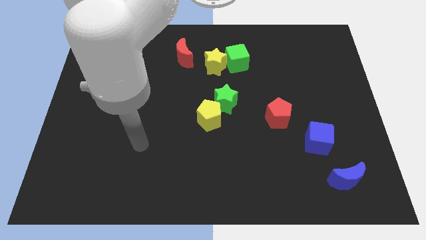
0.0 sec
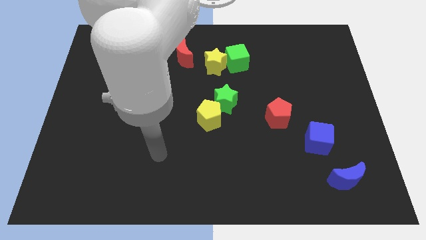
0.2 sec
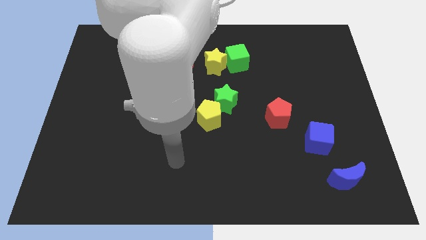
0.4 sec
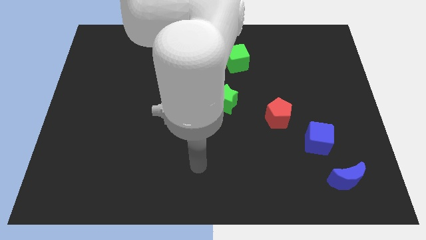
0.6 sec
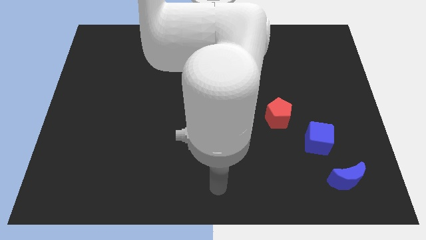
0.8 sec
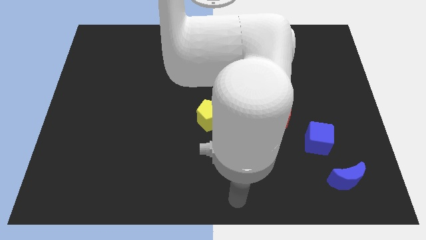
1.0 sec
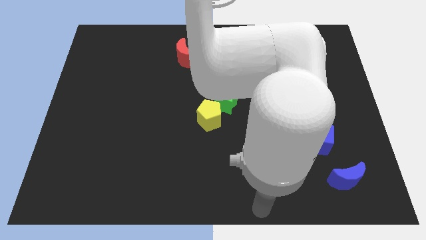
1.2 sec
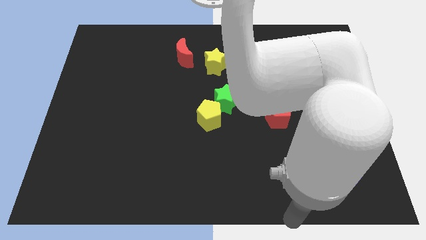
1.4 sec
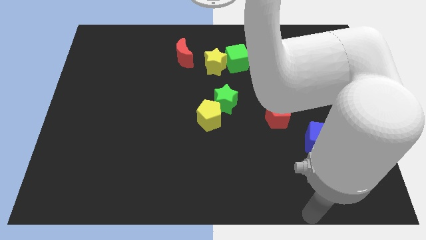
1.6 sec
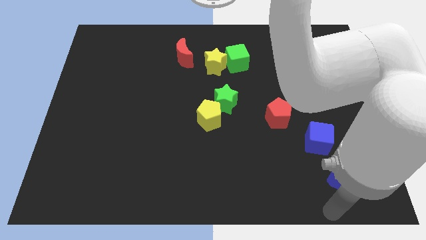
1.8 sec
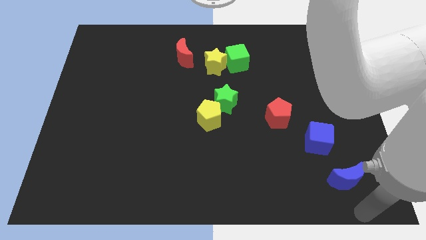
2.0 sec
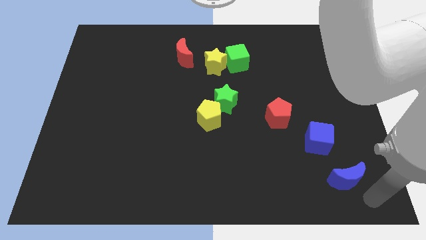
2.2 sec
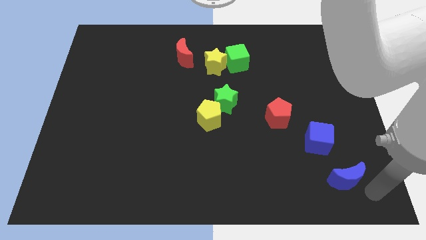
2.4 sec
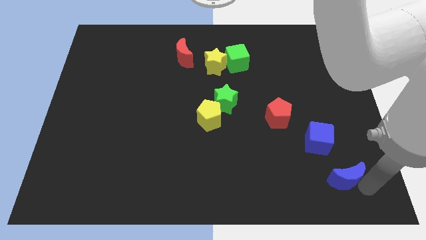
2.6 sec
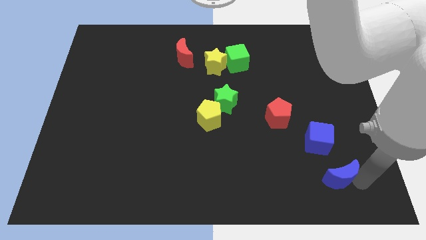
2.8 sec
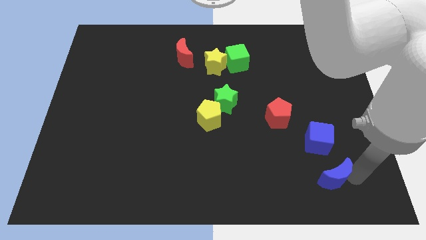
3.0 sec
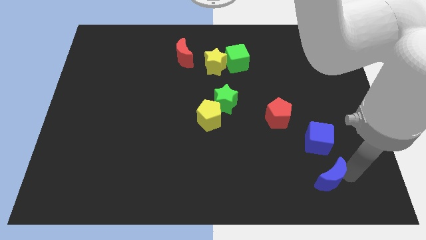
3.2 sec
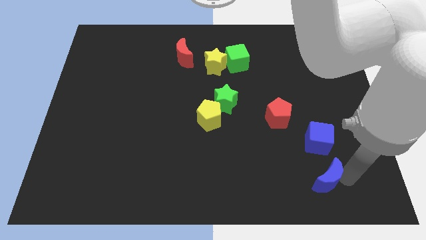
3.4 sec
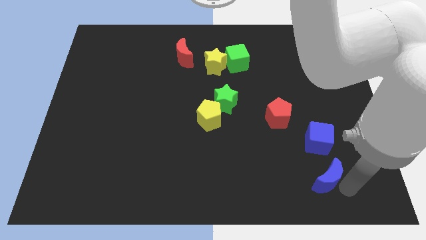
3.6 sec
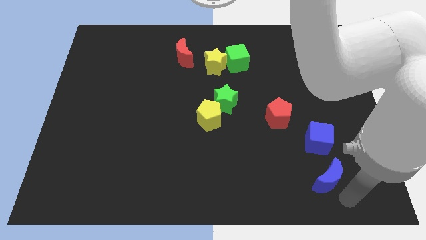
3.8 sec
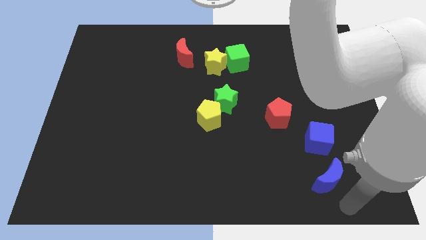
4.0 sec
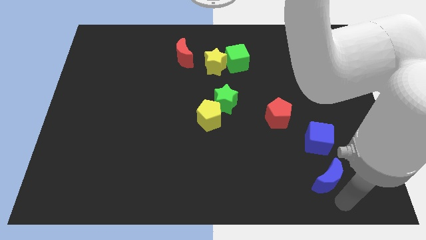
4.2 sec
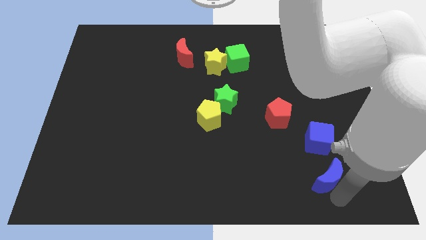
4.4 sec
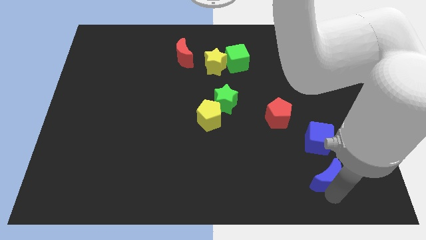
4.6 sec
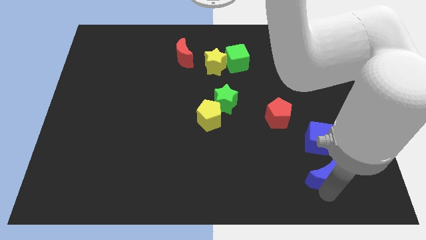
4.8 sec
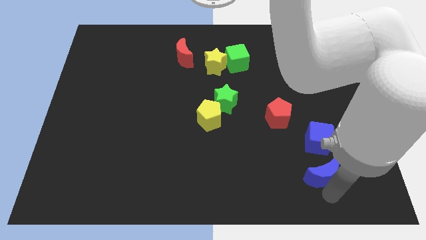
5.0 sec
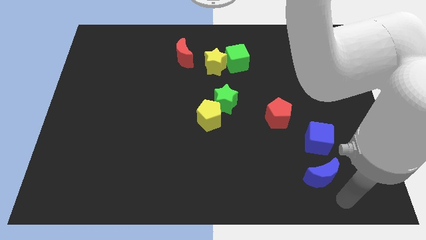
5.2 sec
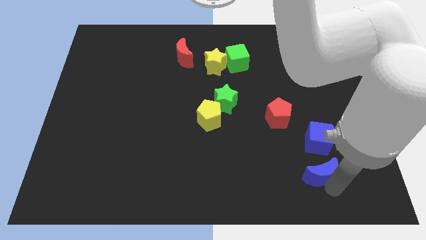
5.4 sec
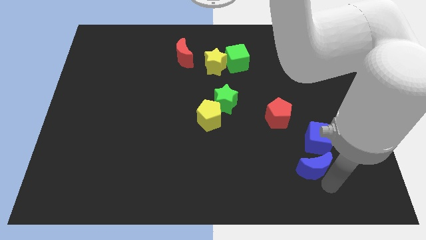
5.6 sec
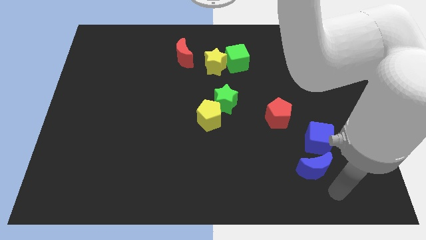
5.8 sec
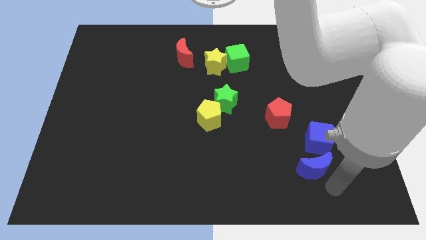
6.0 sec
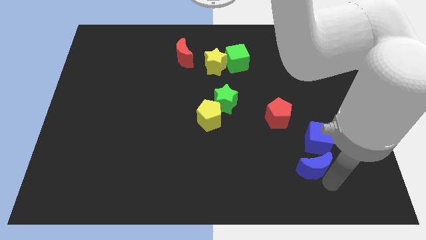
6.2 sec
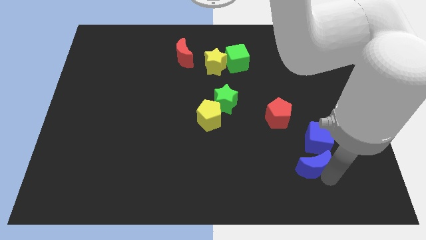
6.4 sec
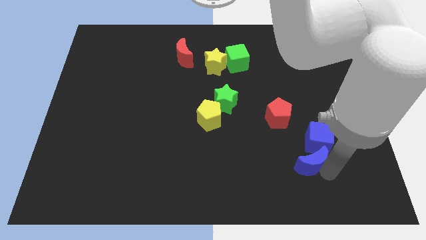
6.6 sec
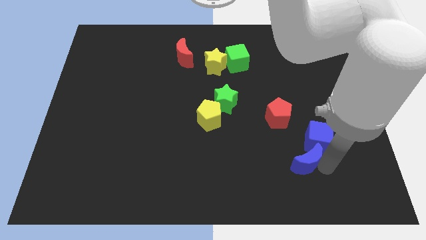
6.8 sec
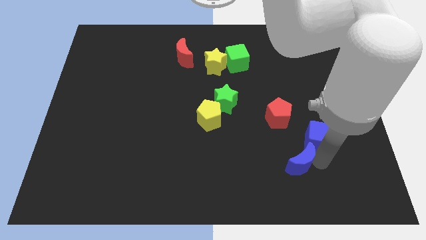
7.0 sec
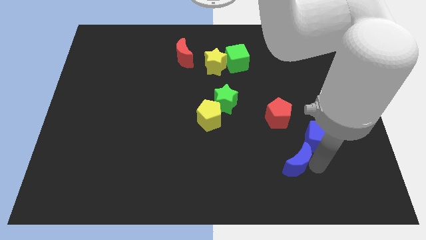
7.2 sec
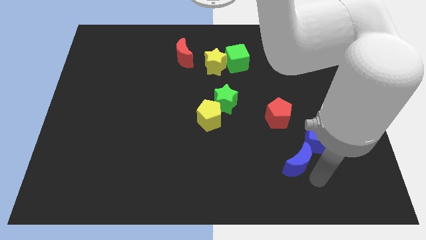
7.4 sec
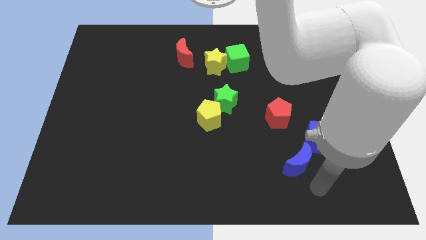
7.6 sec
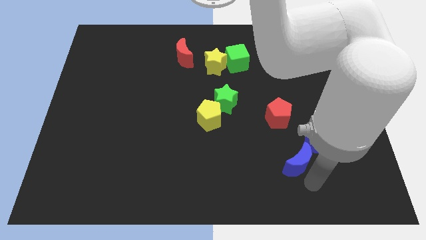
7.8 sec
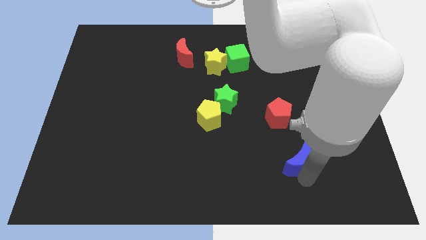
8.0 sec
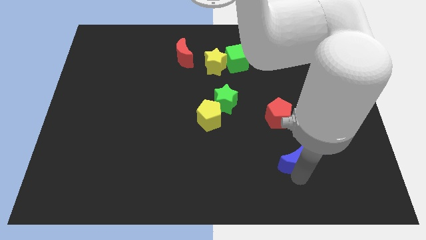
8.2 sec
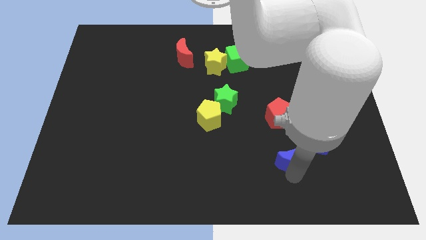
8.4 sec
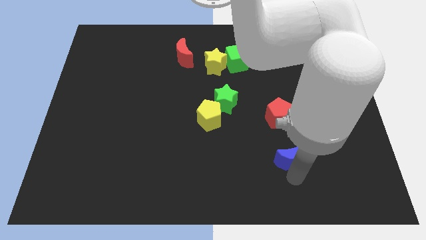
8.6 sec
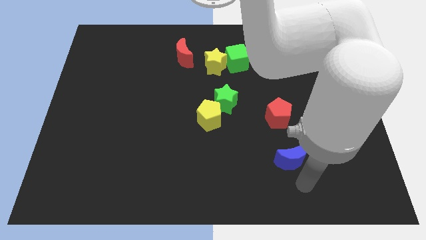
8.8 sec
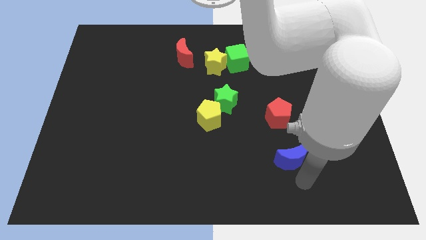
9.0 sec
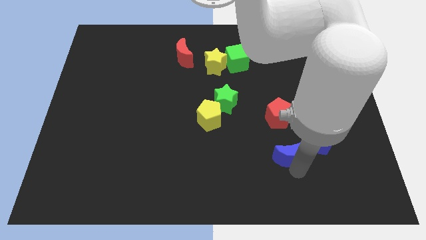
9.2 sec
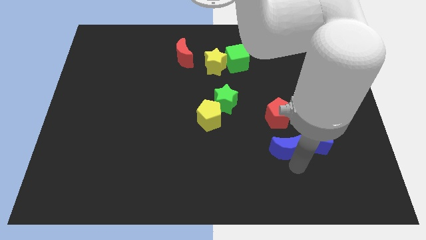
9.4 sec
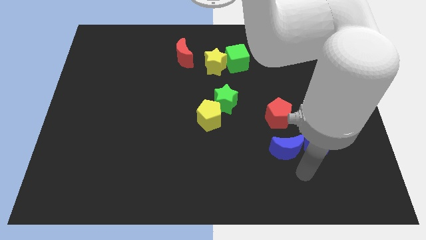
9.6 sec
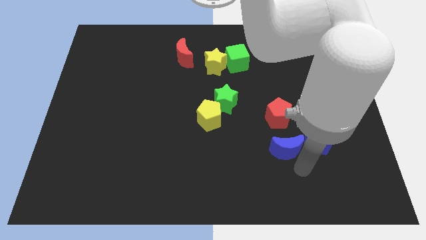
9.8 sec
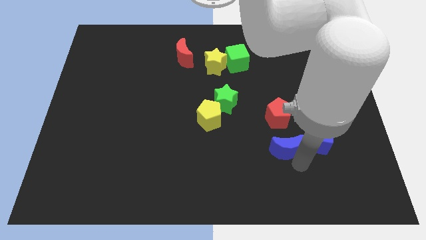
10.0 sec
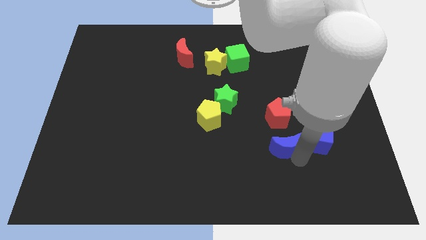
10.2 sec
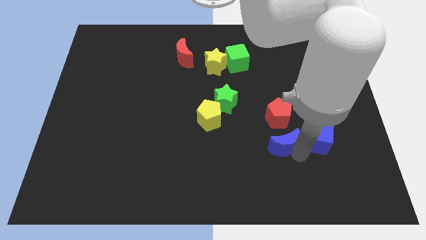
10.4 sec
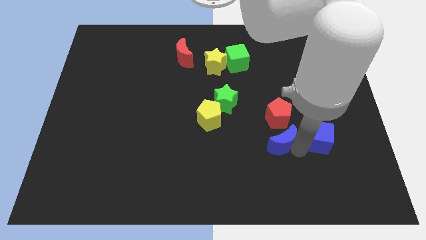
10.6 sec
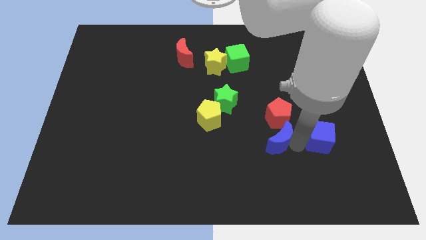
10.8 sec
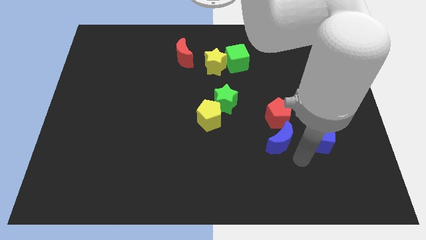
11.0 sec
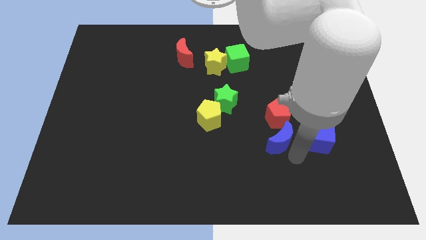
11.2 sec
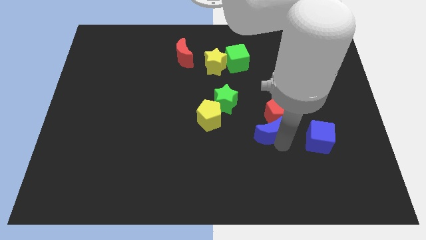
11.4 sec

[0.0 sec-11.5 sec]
push the blue moon just right of the yellow pentagon

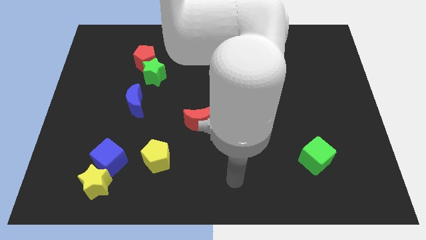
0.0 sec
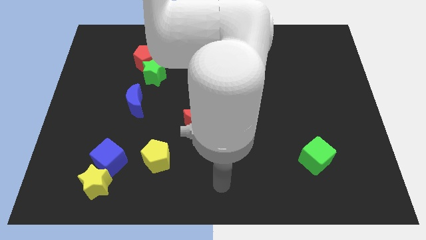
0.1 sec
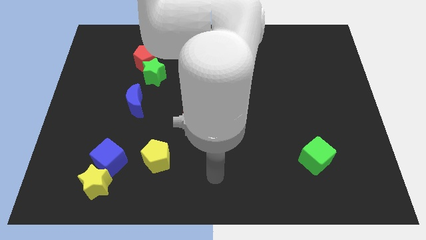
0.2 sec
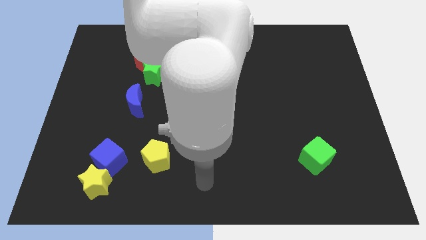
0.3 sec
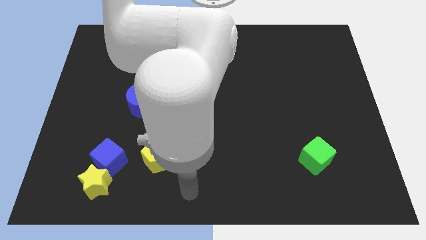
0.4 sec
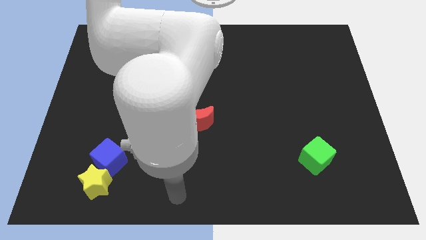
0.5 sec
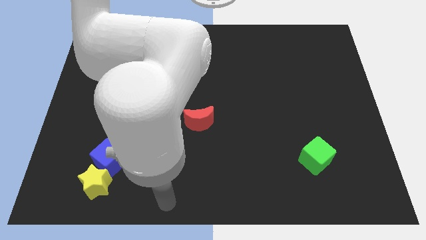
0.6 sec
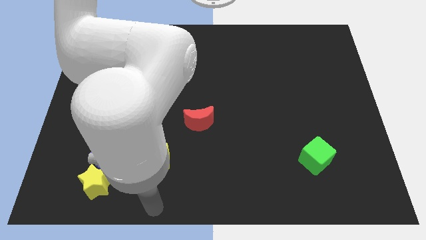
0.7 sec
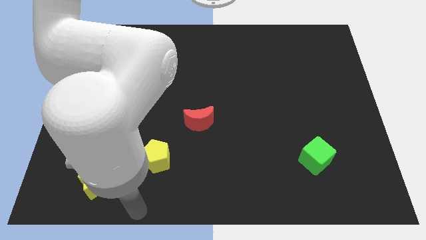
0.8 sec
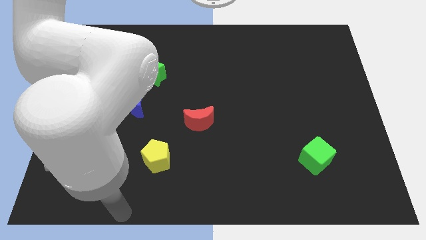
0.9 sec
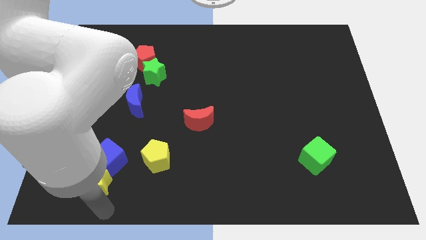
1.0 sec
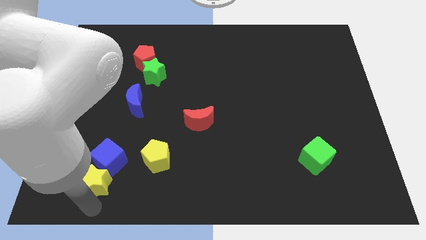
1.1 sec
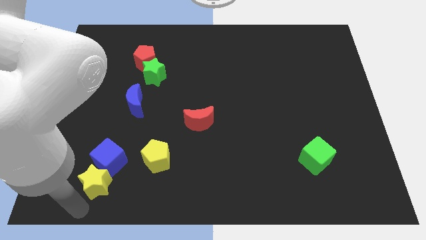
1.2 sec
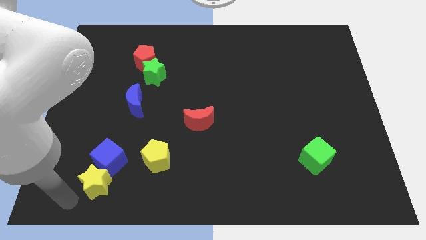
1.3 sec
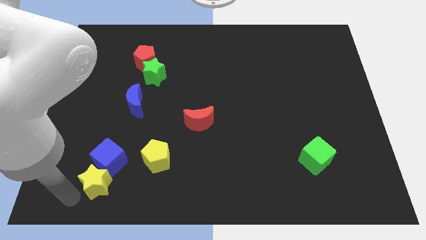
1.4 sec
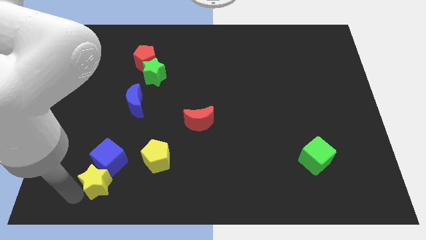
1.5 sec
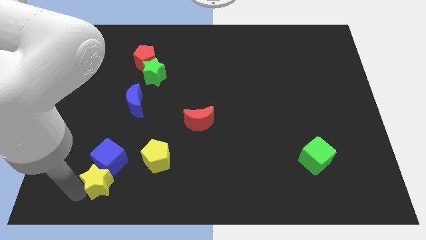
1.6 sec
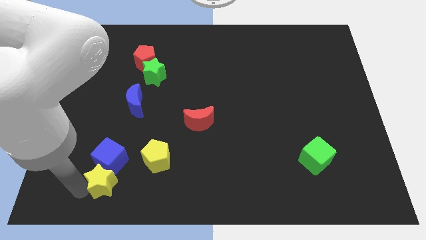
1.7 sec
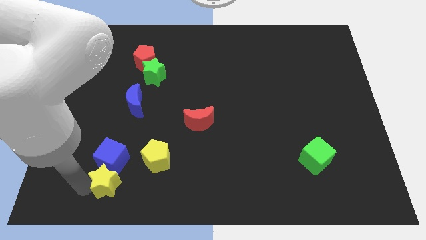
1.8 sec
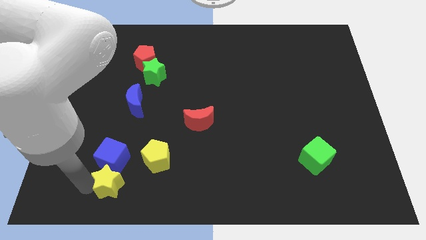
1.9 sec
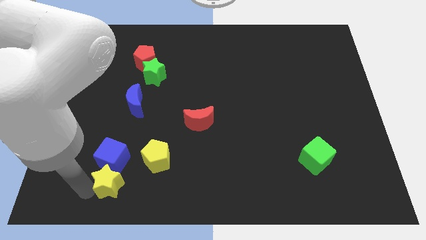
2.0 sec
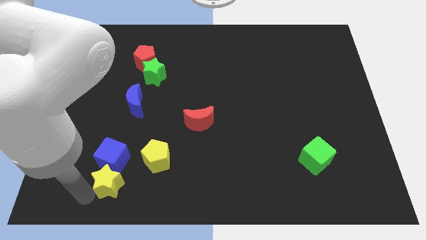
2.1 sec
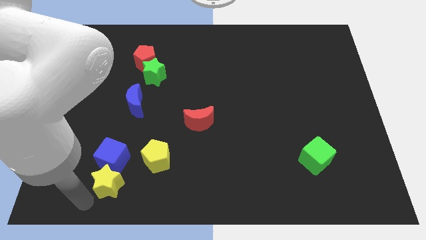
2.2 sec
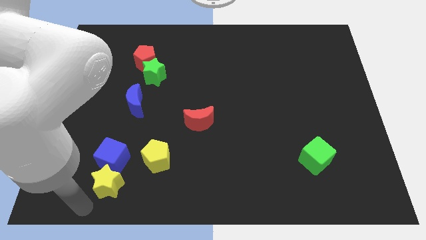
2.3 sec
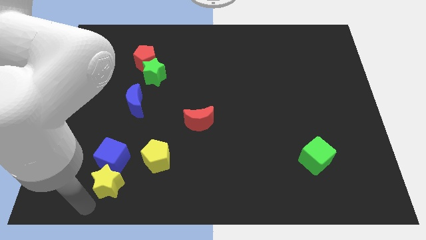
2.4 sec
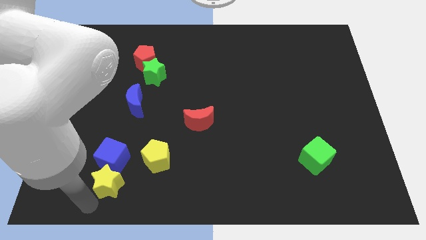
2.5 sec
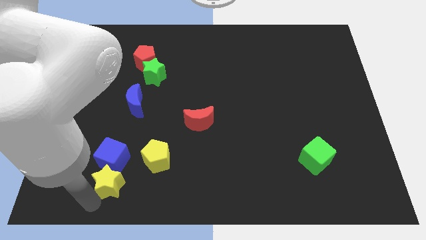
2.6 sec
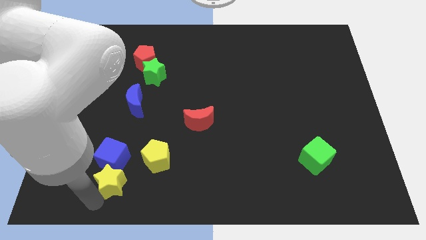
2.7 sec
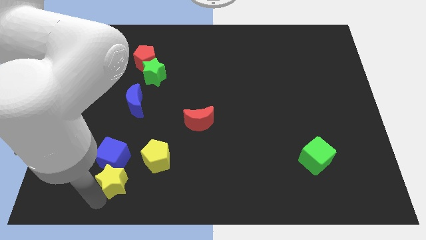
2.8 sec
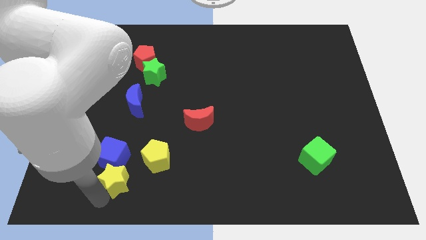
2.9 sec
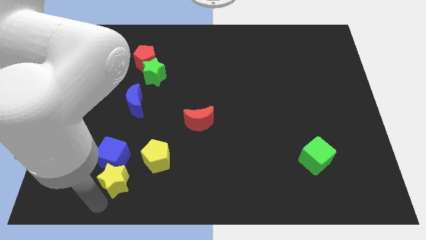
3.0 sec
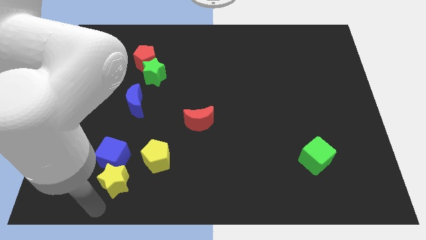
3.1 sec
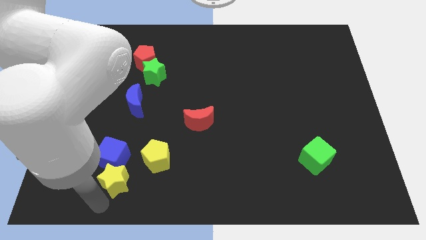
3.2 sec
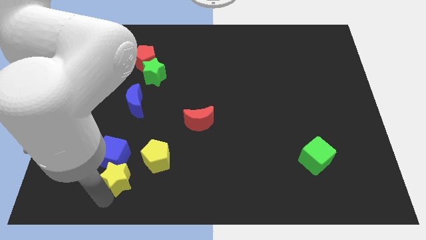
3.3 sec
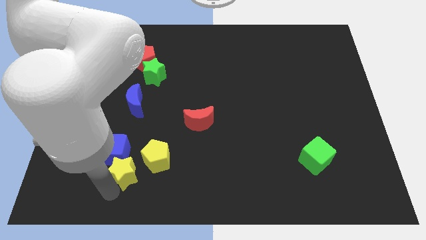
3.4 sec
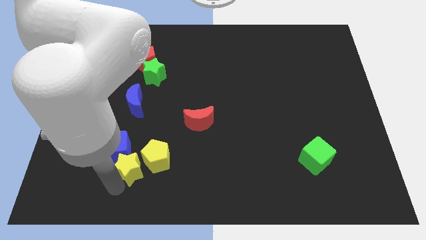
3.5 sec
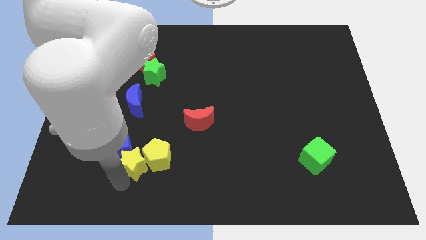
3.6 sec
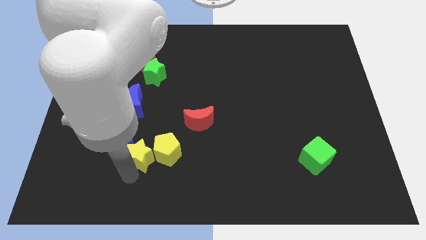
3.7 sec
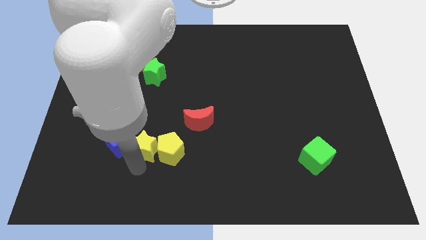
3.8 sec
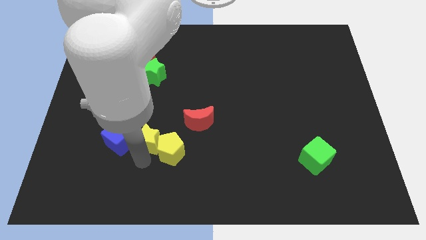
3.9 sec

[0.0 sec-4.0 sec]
put the yellow star diagonally up and to the right of the blue cube
